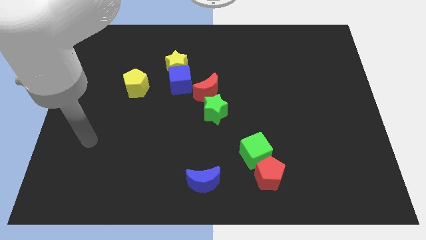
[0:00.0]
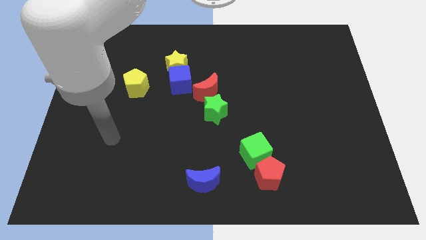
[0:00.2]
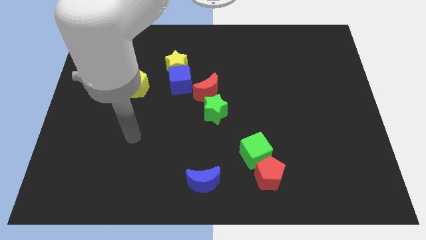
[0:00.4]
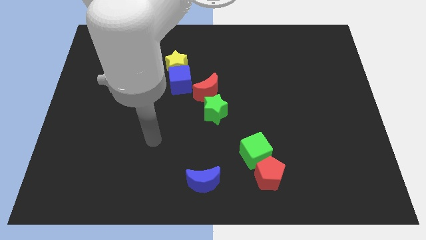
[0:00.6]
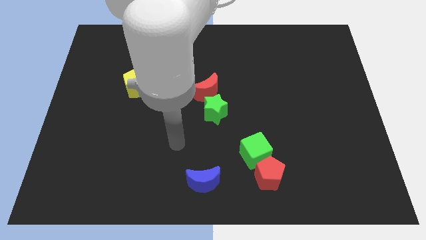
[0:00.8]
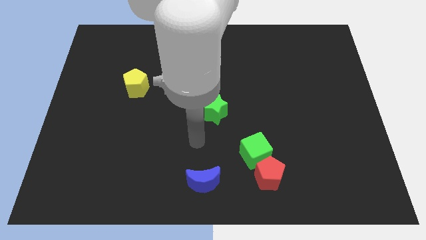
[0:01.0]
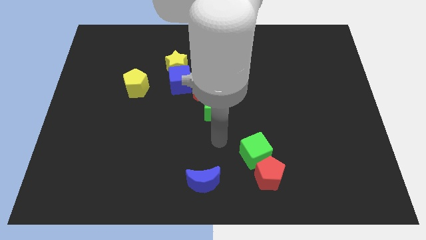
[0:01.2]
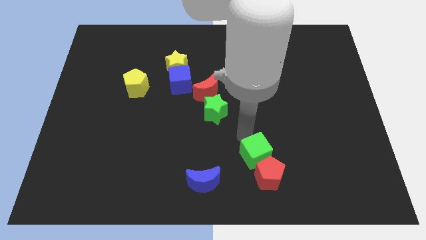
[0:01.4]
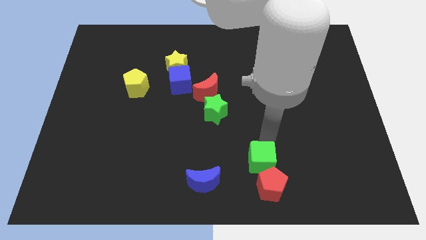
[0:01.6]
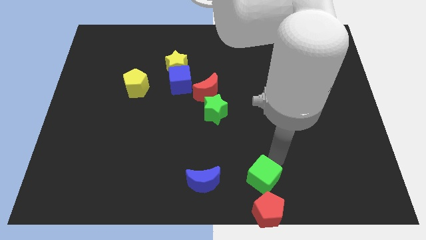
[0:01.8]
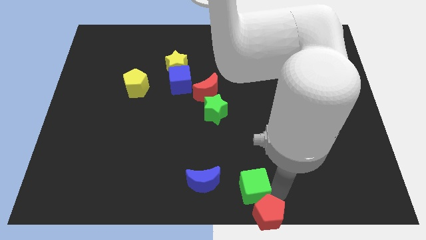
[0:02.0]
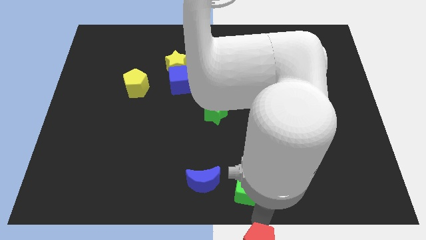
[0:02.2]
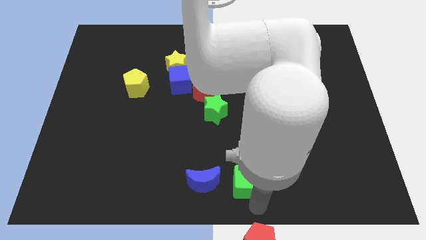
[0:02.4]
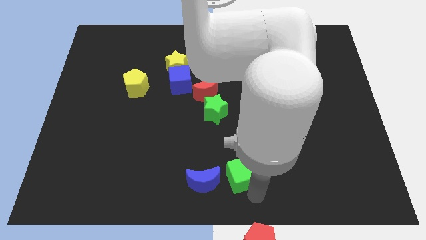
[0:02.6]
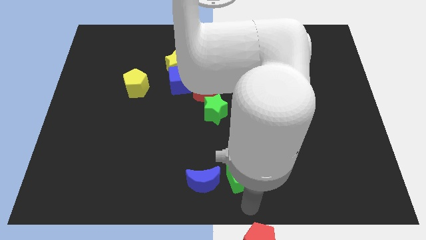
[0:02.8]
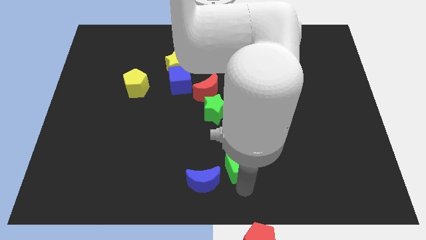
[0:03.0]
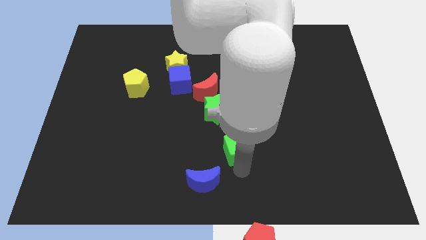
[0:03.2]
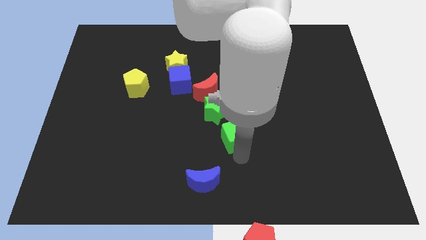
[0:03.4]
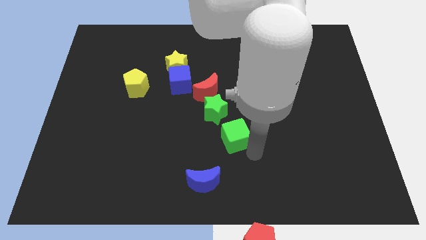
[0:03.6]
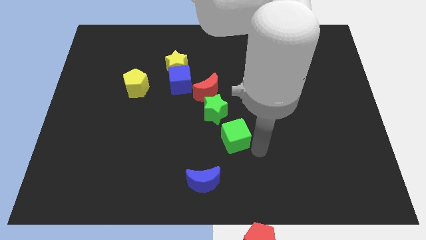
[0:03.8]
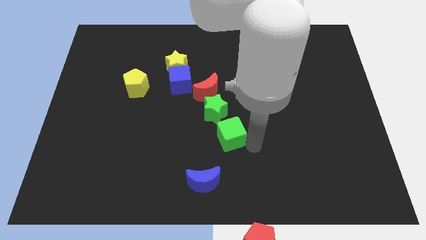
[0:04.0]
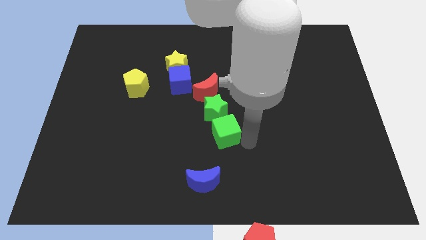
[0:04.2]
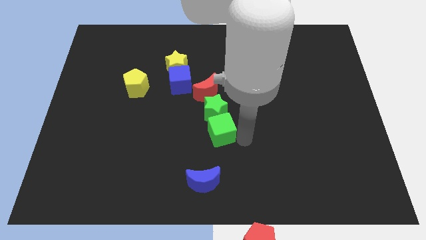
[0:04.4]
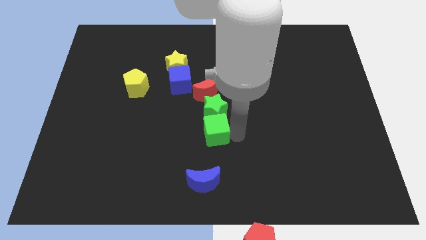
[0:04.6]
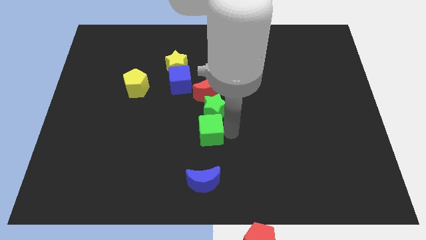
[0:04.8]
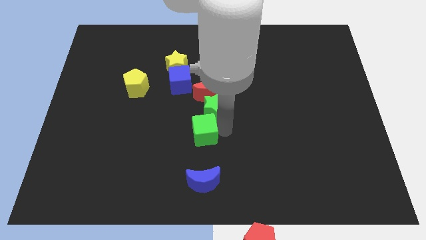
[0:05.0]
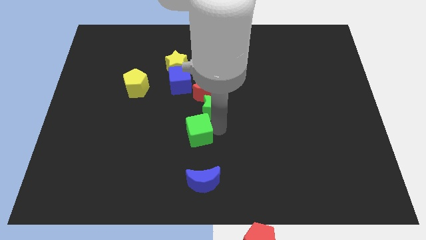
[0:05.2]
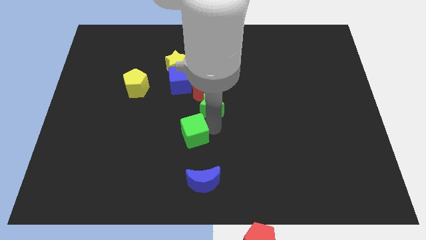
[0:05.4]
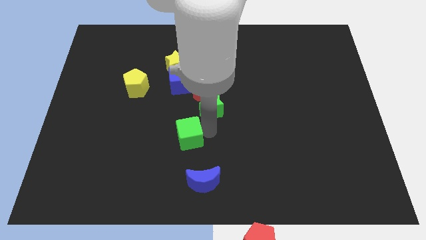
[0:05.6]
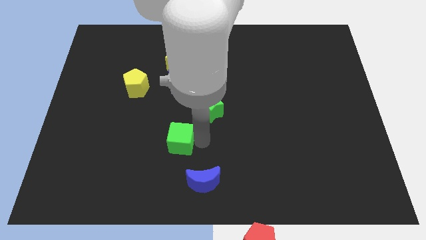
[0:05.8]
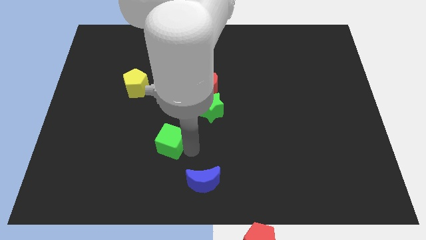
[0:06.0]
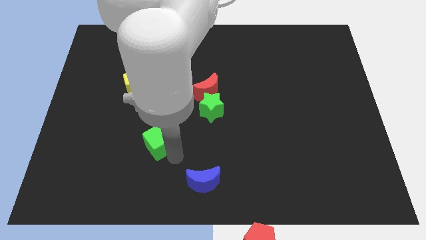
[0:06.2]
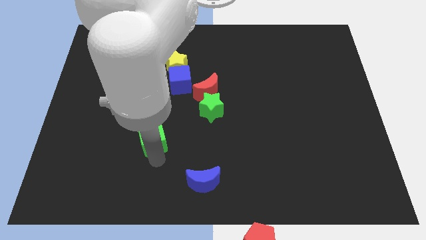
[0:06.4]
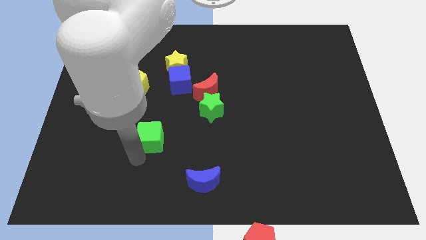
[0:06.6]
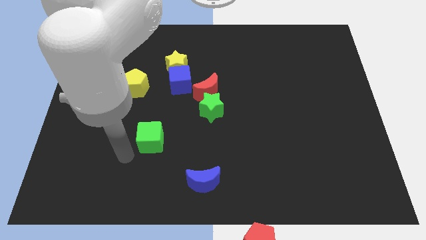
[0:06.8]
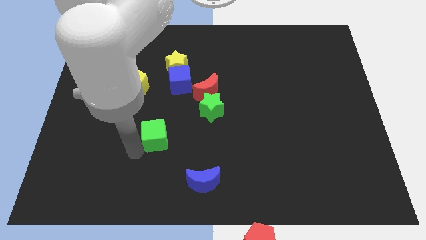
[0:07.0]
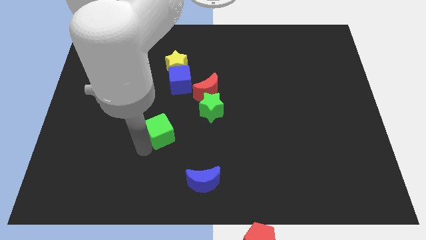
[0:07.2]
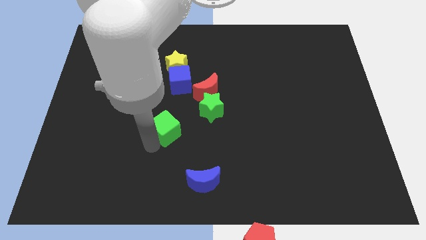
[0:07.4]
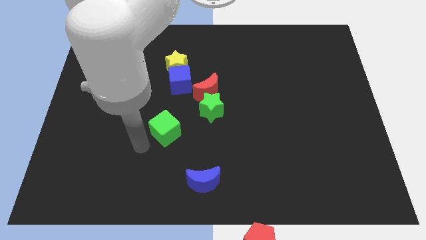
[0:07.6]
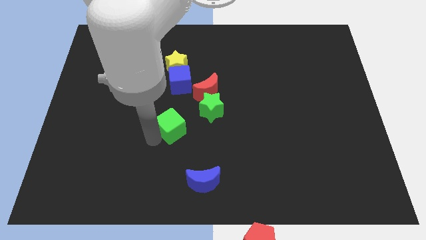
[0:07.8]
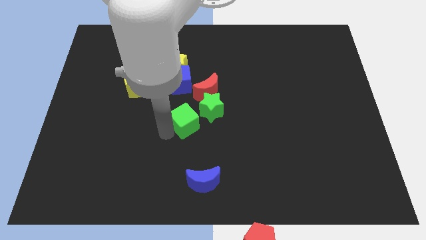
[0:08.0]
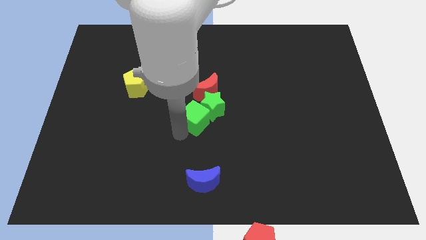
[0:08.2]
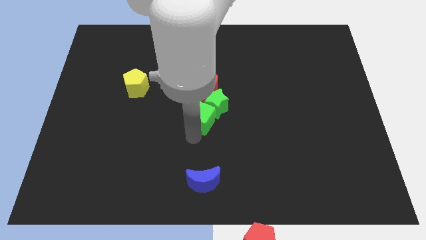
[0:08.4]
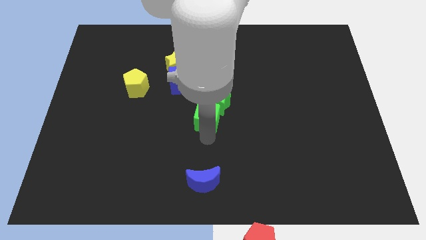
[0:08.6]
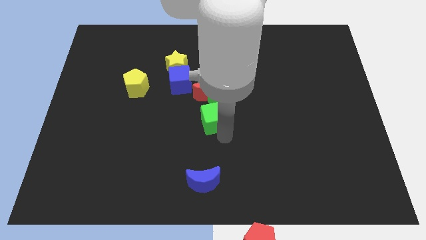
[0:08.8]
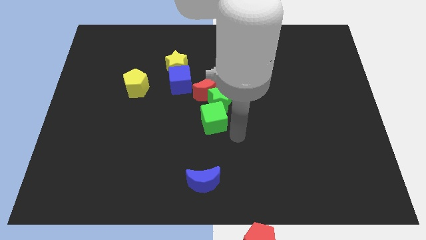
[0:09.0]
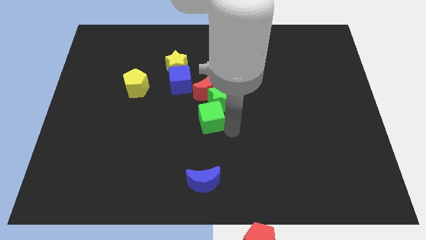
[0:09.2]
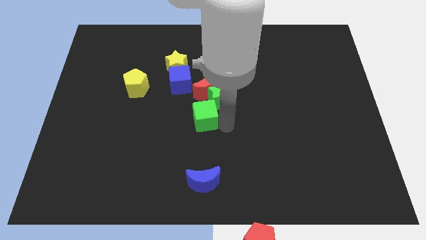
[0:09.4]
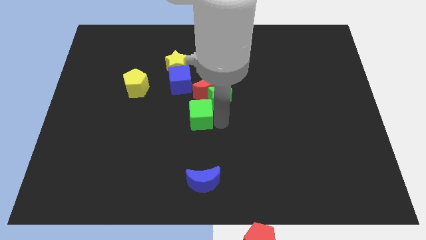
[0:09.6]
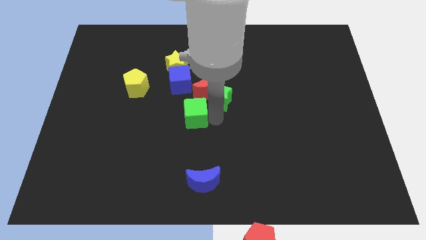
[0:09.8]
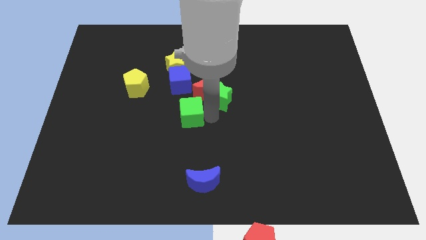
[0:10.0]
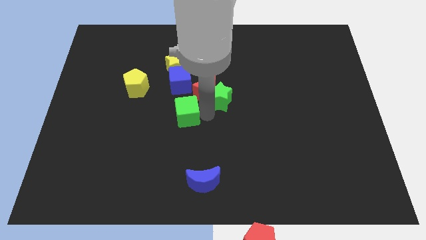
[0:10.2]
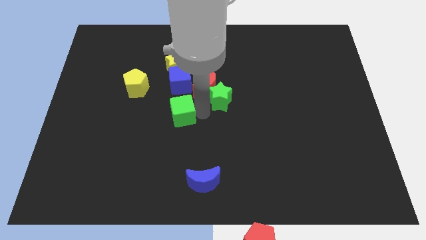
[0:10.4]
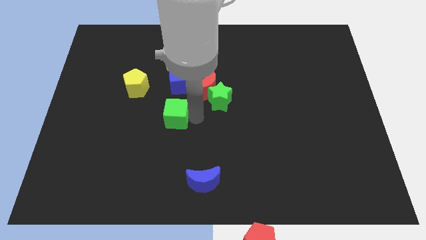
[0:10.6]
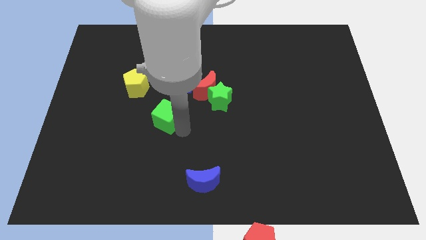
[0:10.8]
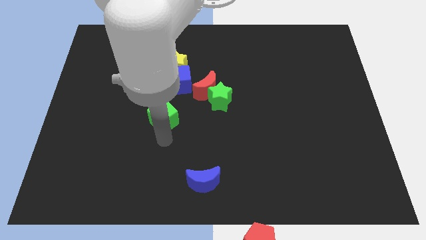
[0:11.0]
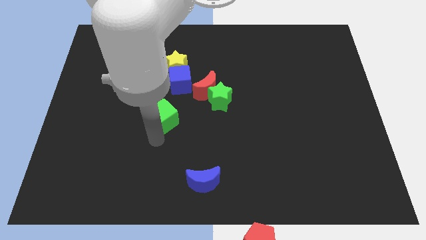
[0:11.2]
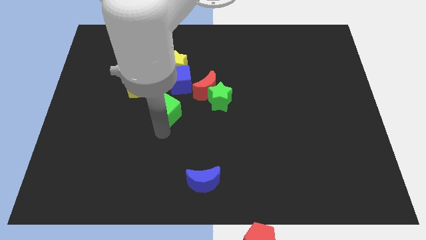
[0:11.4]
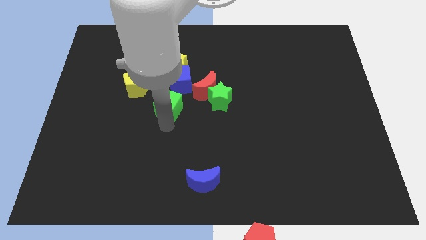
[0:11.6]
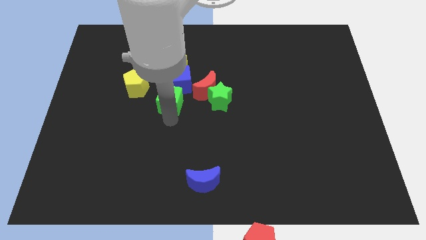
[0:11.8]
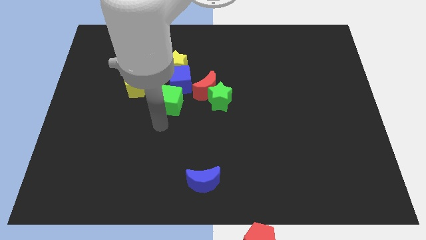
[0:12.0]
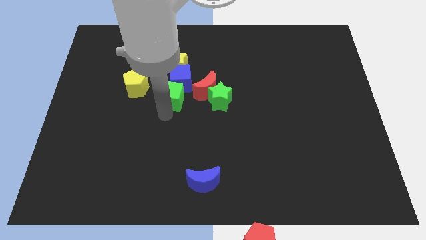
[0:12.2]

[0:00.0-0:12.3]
move the green cube to the blue cube

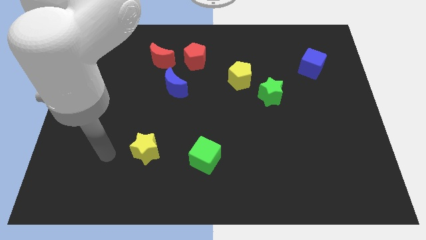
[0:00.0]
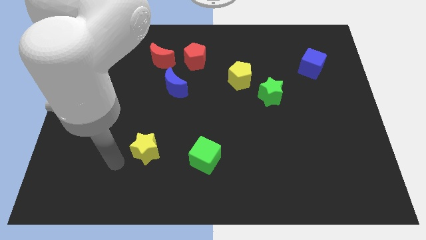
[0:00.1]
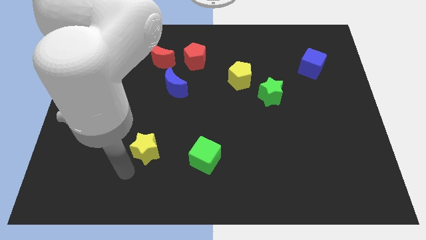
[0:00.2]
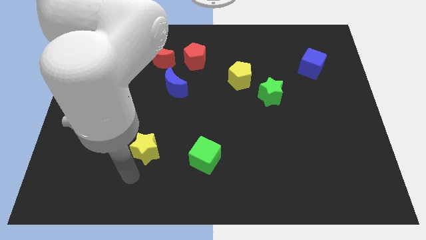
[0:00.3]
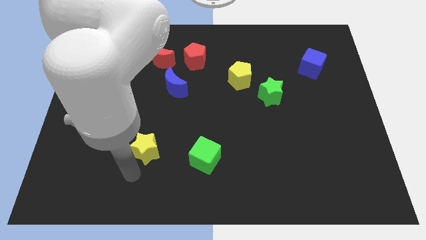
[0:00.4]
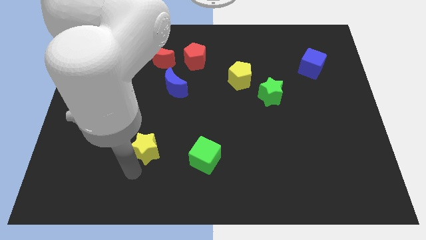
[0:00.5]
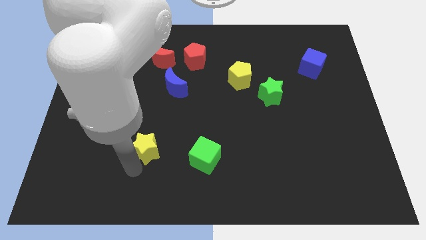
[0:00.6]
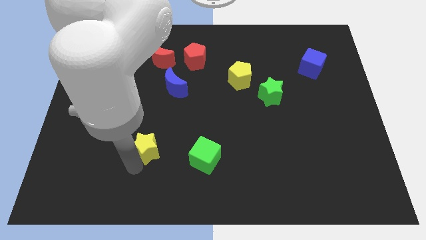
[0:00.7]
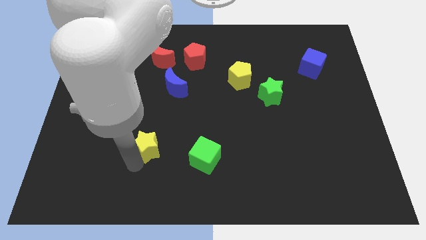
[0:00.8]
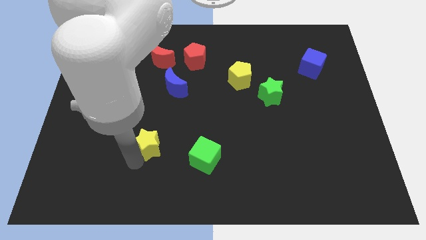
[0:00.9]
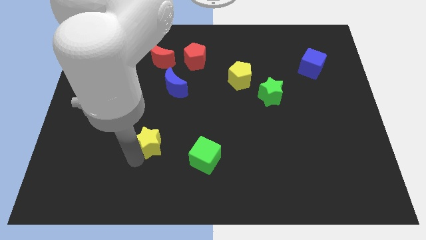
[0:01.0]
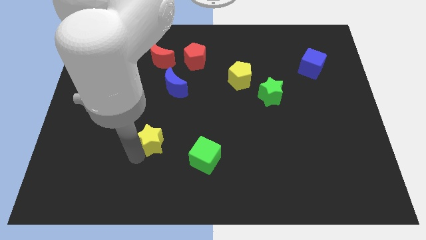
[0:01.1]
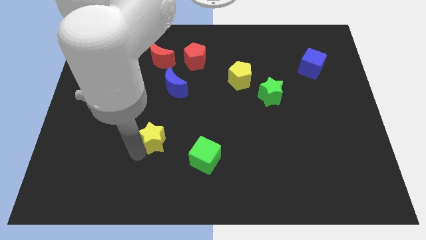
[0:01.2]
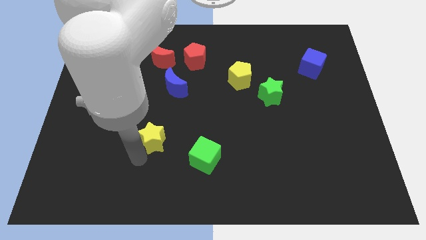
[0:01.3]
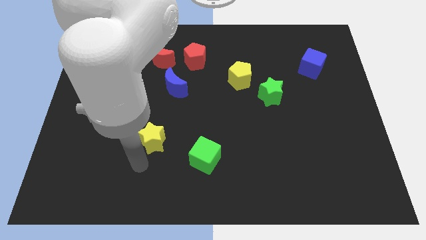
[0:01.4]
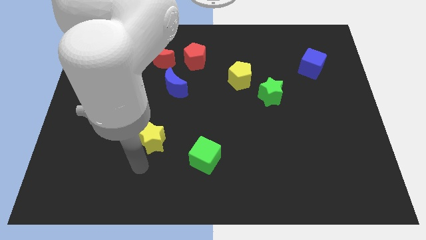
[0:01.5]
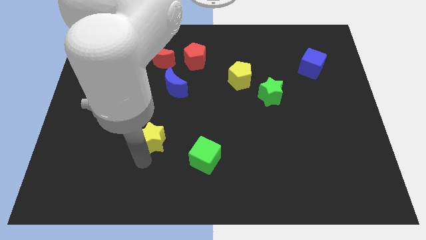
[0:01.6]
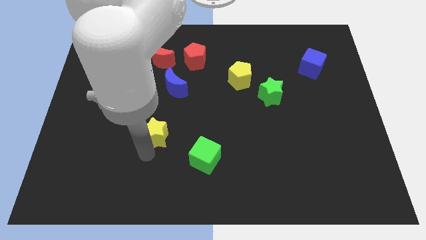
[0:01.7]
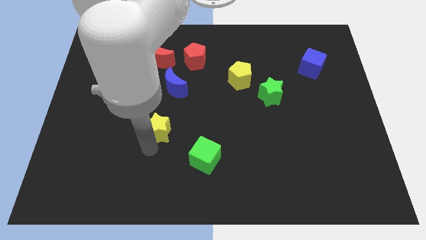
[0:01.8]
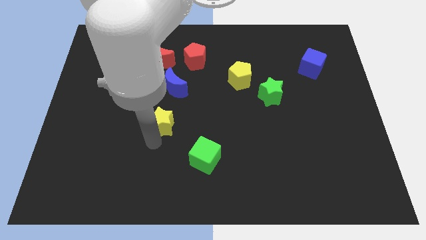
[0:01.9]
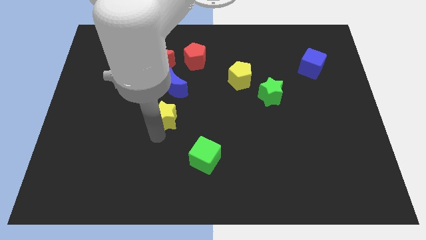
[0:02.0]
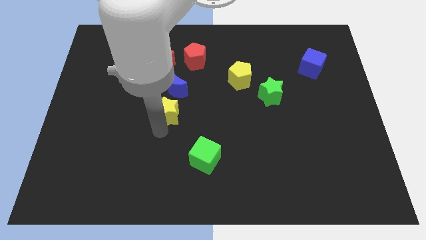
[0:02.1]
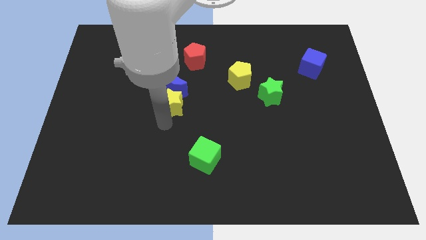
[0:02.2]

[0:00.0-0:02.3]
push the yellow star to the blue moon
